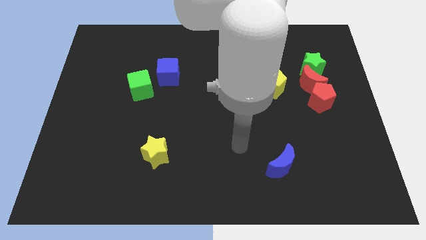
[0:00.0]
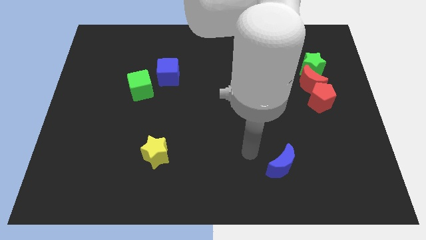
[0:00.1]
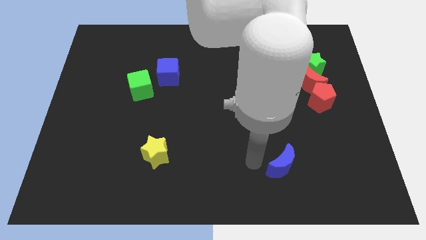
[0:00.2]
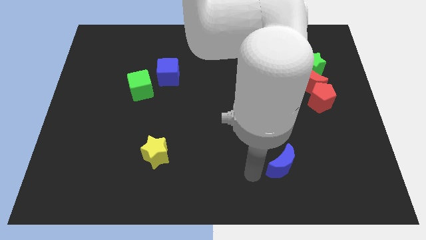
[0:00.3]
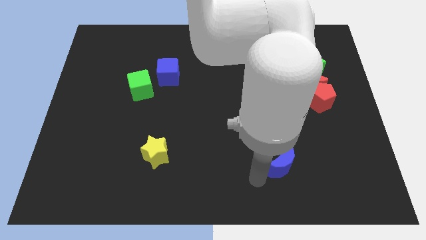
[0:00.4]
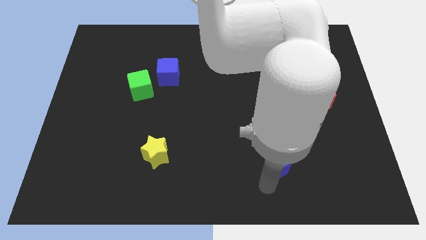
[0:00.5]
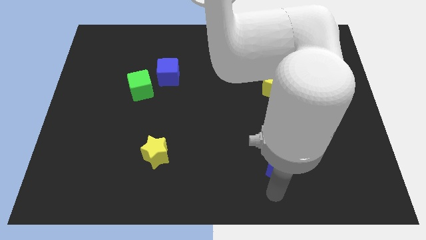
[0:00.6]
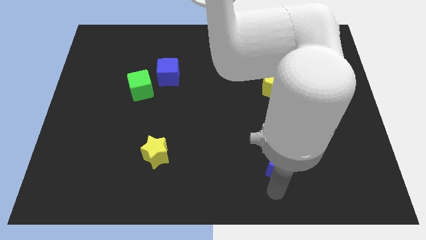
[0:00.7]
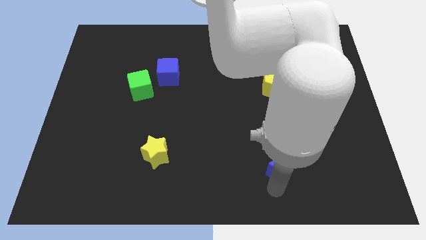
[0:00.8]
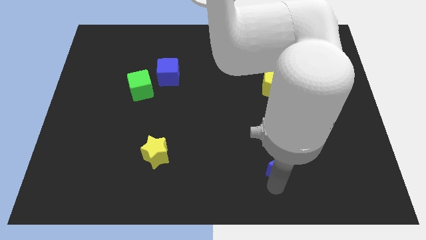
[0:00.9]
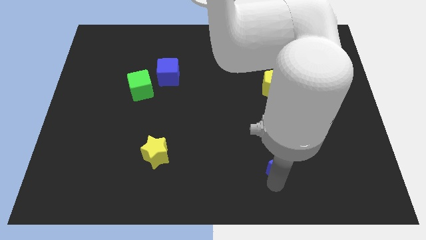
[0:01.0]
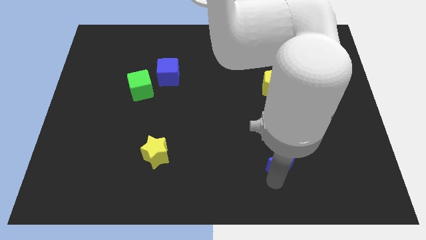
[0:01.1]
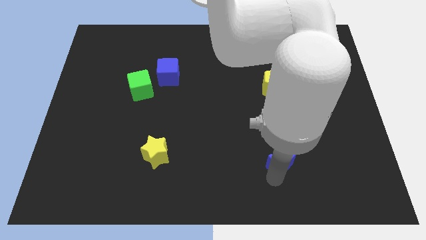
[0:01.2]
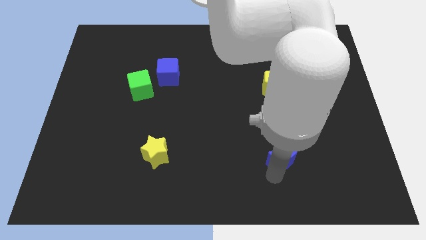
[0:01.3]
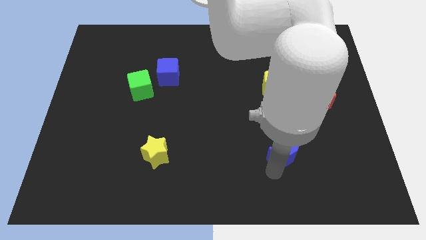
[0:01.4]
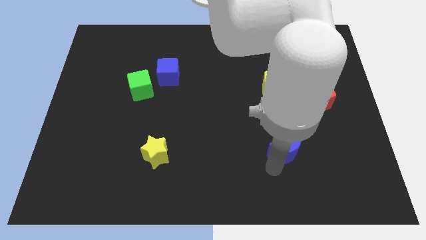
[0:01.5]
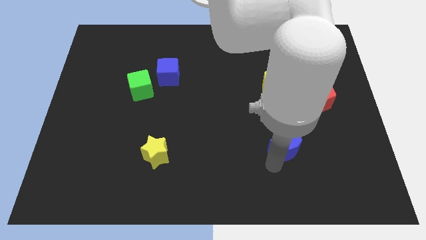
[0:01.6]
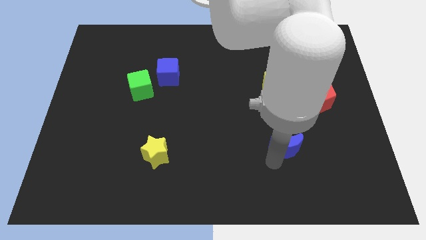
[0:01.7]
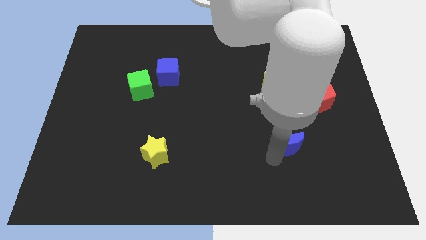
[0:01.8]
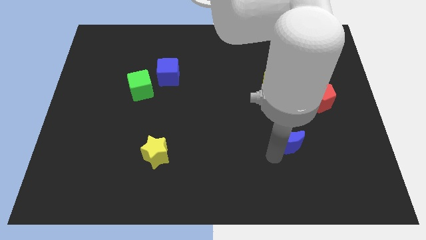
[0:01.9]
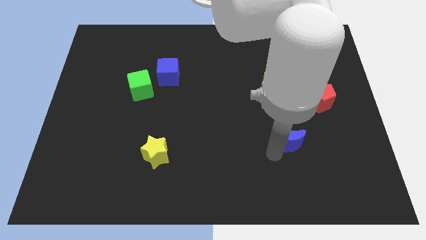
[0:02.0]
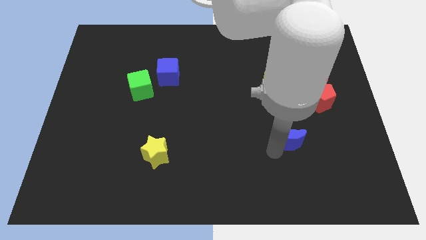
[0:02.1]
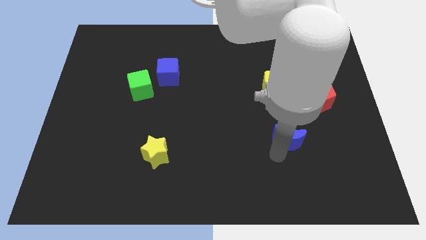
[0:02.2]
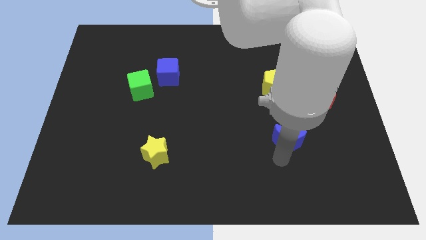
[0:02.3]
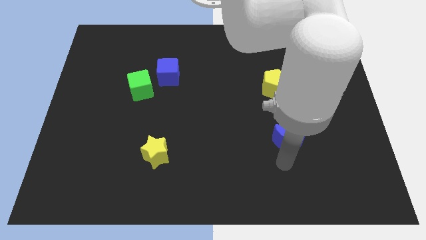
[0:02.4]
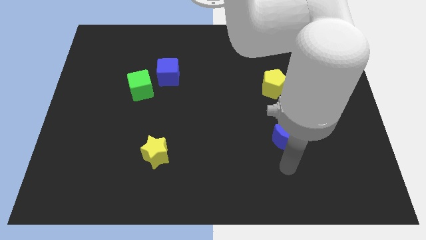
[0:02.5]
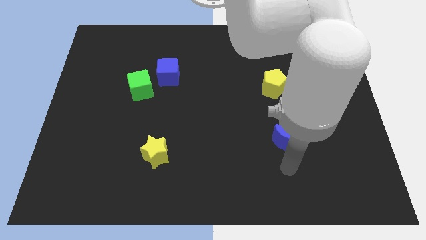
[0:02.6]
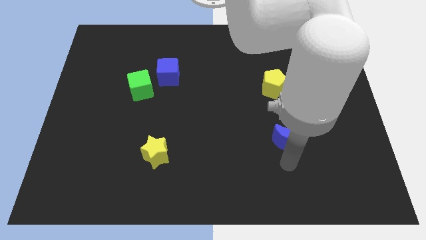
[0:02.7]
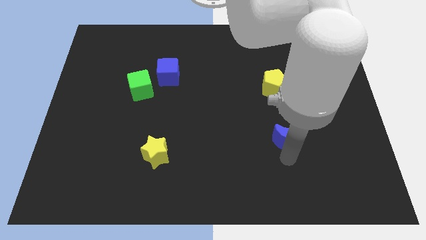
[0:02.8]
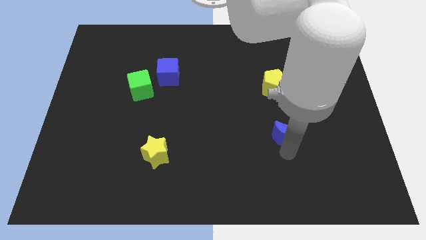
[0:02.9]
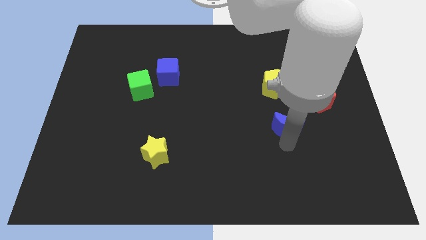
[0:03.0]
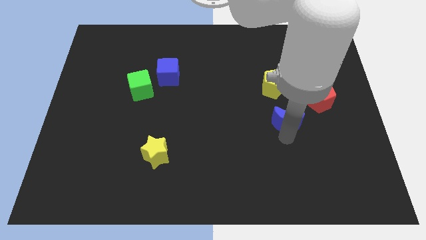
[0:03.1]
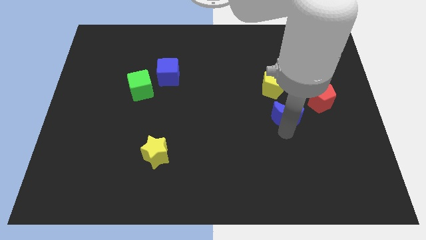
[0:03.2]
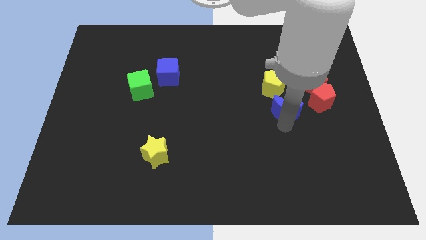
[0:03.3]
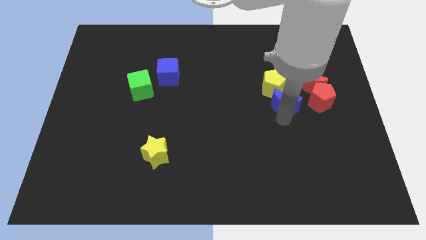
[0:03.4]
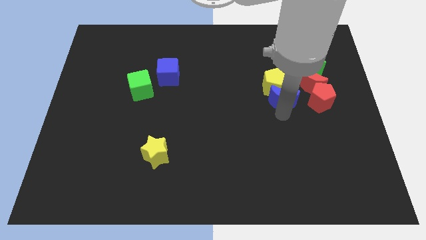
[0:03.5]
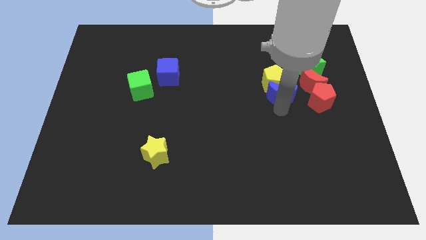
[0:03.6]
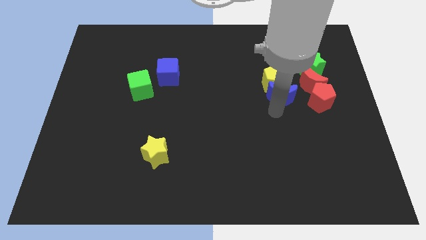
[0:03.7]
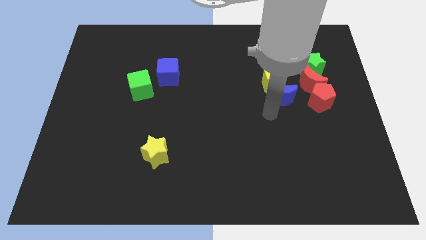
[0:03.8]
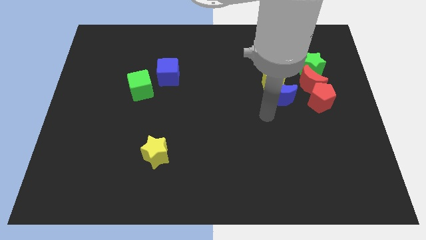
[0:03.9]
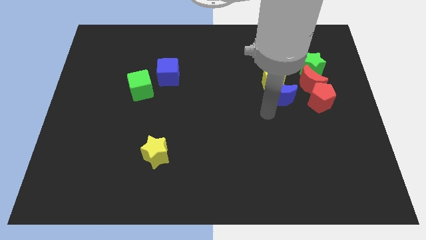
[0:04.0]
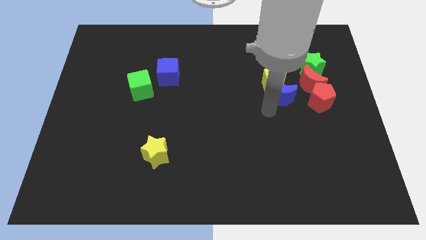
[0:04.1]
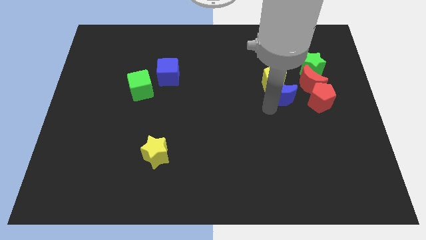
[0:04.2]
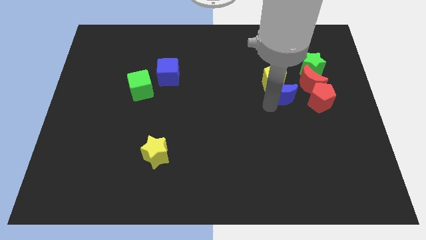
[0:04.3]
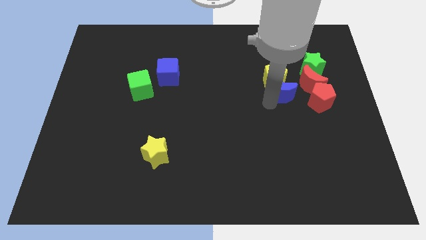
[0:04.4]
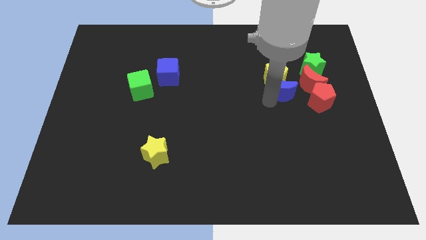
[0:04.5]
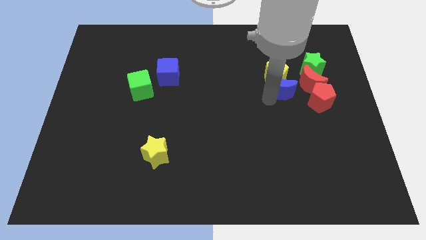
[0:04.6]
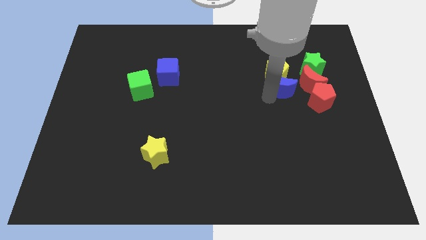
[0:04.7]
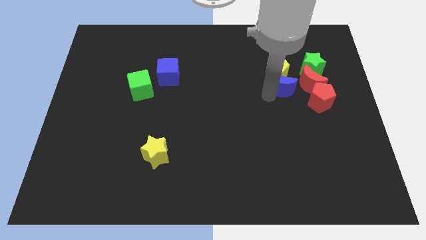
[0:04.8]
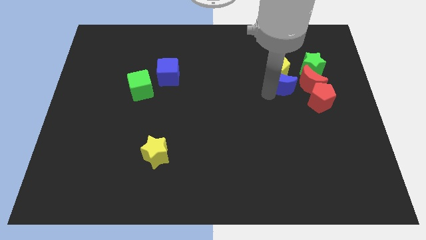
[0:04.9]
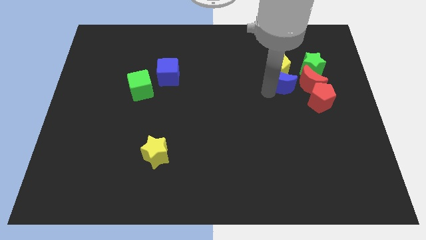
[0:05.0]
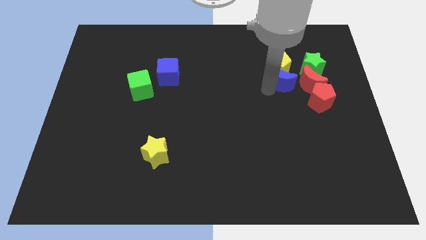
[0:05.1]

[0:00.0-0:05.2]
move the blue moon diagonally up and to the left of the red moon
